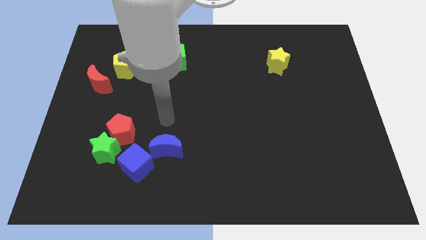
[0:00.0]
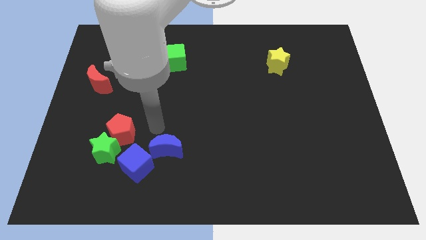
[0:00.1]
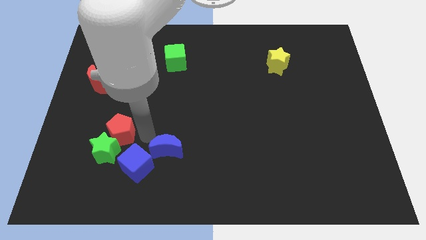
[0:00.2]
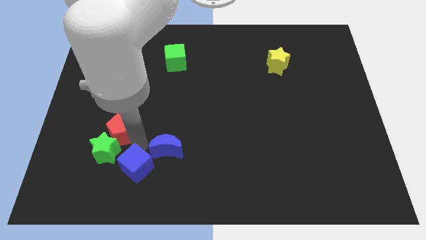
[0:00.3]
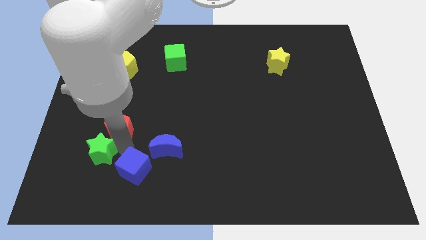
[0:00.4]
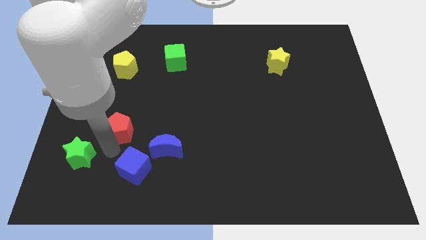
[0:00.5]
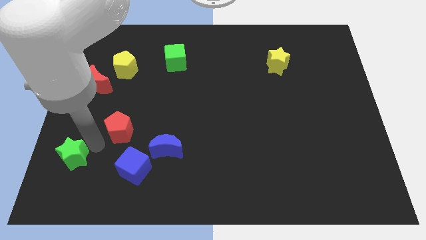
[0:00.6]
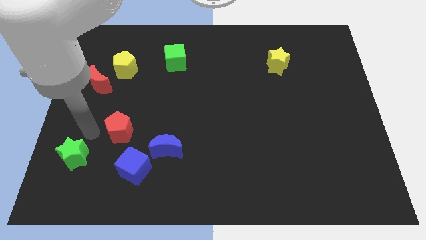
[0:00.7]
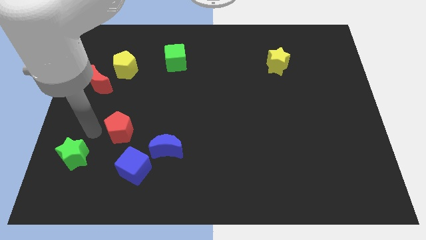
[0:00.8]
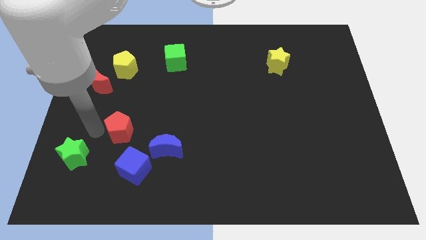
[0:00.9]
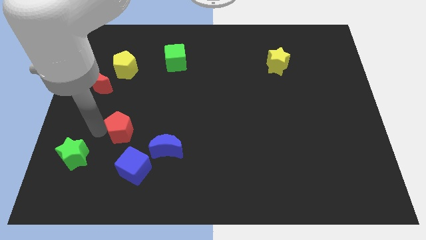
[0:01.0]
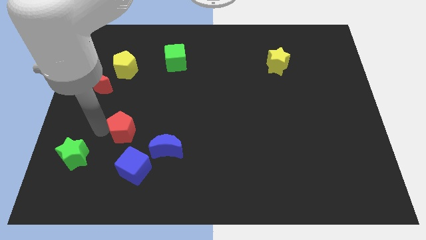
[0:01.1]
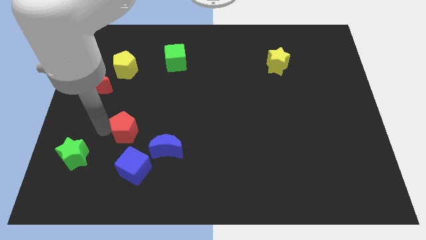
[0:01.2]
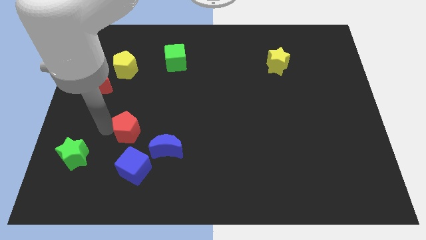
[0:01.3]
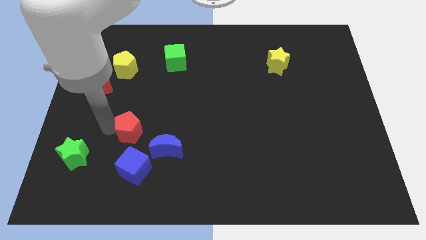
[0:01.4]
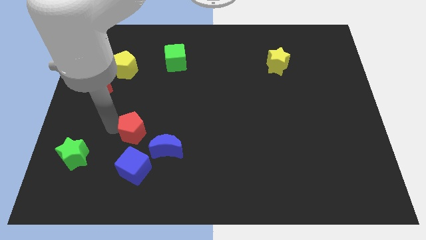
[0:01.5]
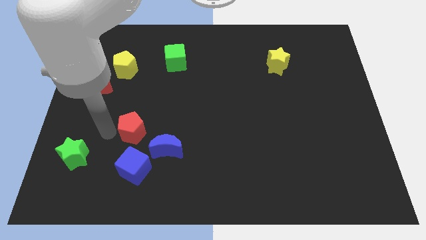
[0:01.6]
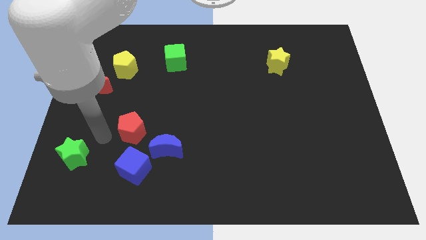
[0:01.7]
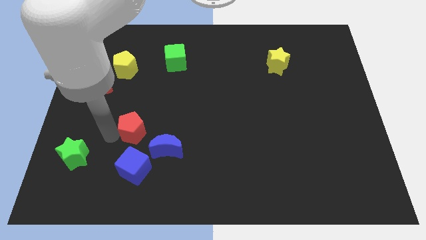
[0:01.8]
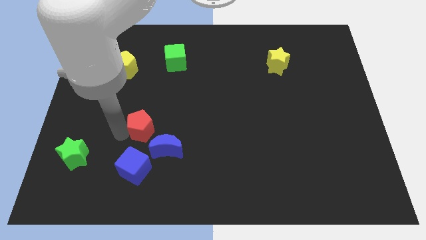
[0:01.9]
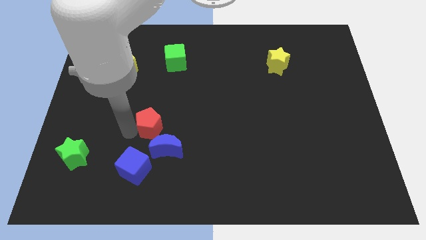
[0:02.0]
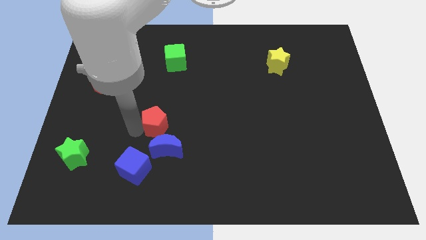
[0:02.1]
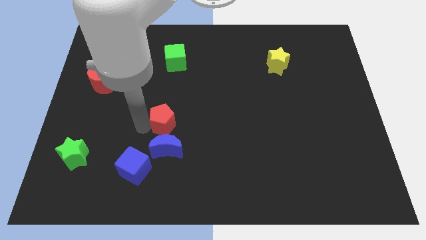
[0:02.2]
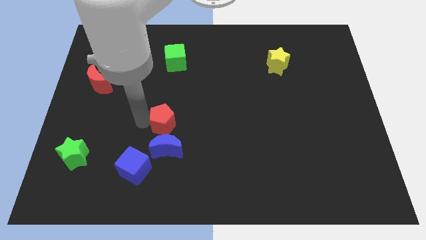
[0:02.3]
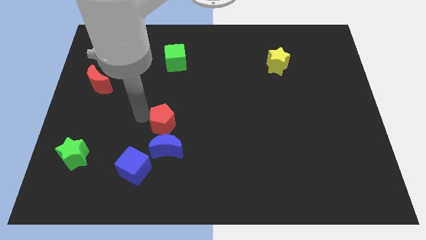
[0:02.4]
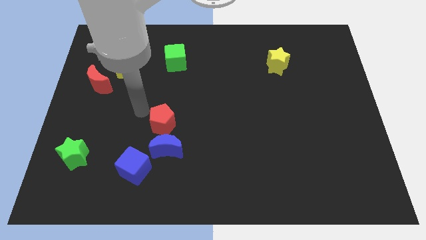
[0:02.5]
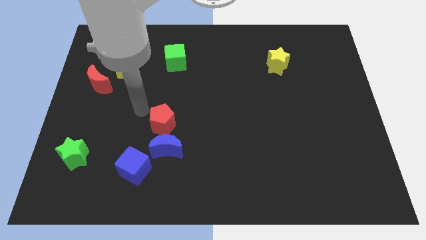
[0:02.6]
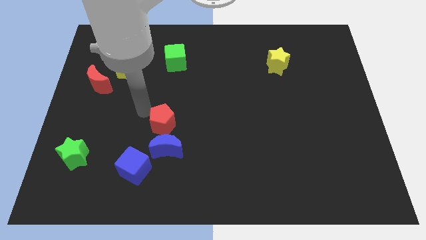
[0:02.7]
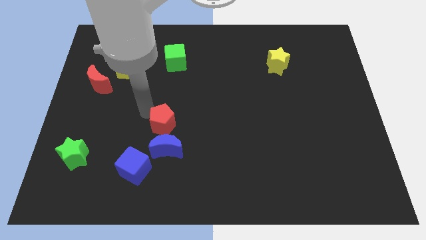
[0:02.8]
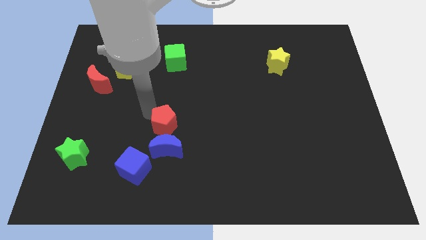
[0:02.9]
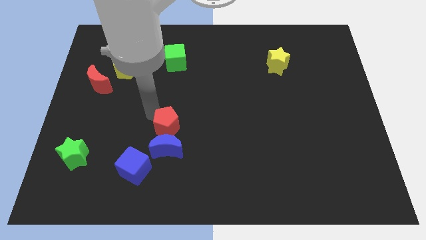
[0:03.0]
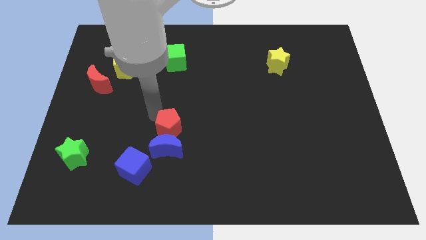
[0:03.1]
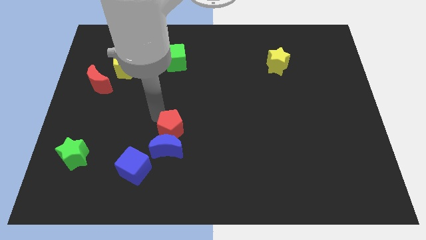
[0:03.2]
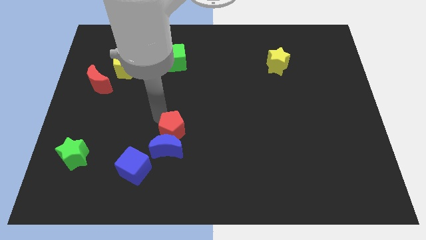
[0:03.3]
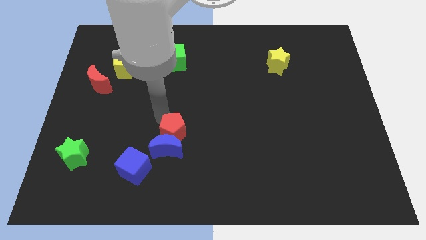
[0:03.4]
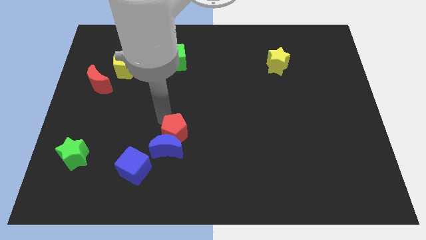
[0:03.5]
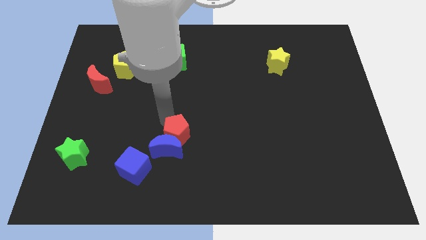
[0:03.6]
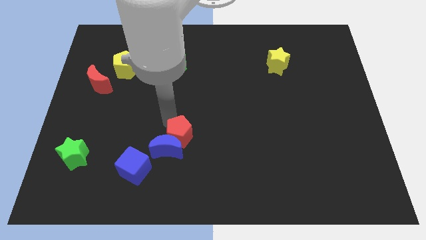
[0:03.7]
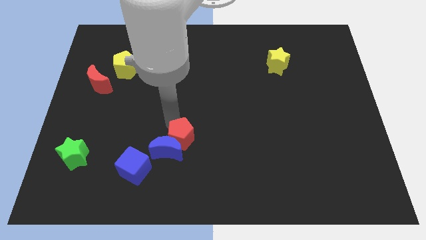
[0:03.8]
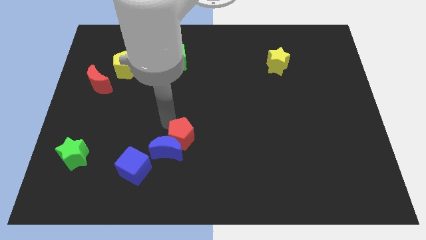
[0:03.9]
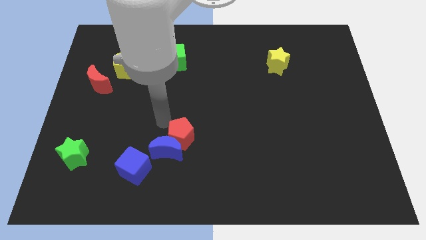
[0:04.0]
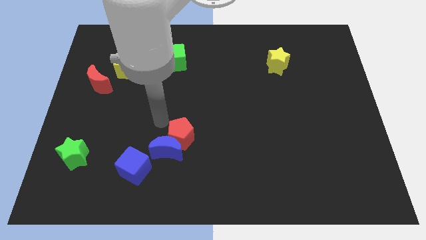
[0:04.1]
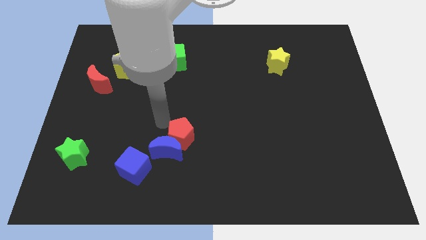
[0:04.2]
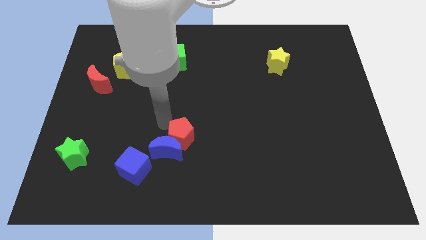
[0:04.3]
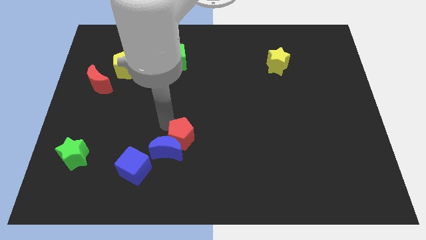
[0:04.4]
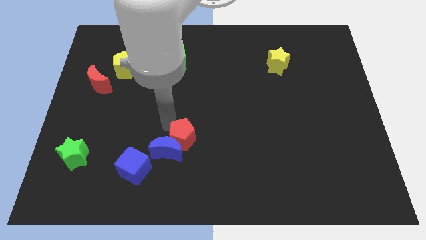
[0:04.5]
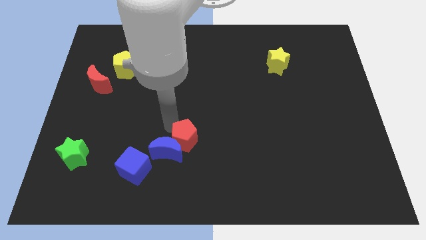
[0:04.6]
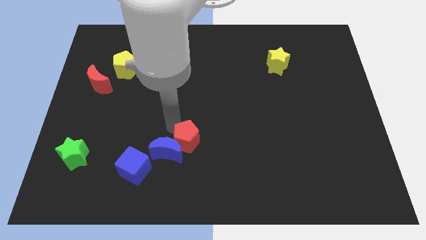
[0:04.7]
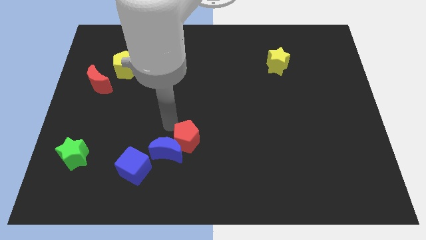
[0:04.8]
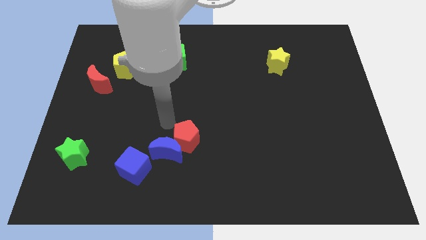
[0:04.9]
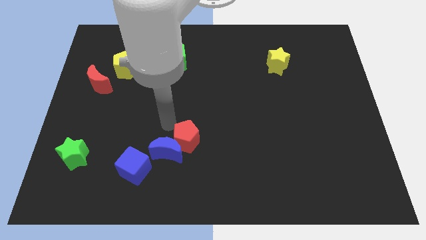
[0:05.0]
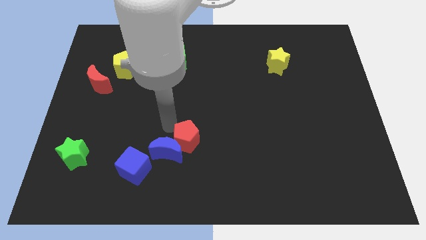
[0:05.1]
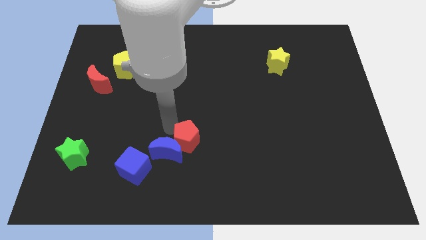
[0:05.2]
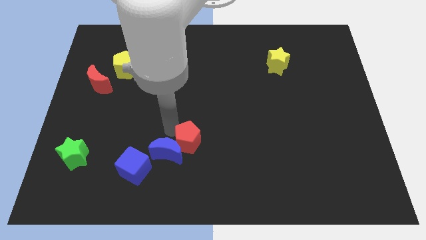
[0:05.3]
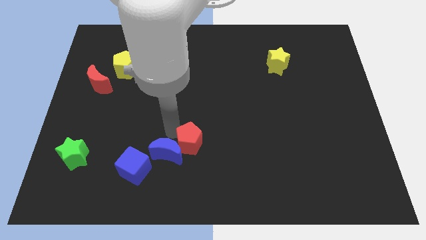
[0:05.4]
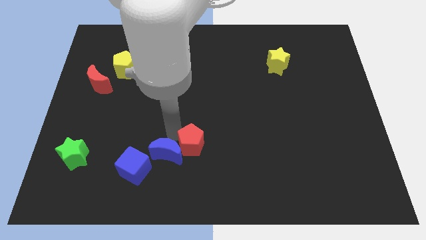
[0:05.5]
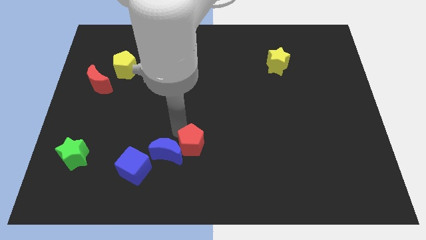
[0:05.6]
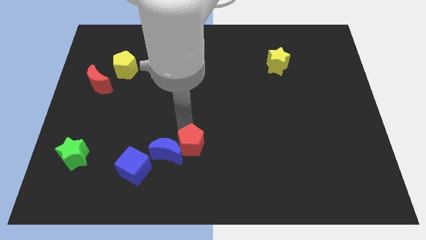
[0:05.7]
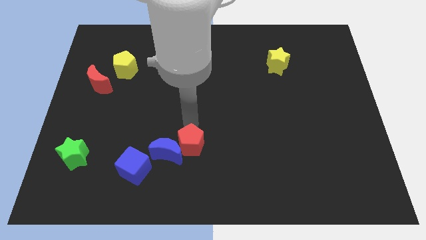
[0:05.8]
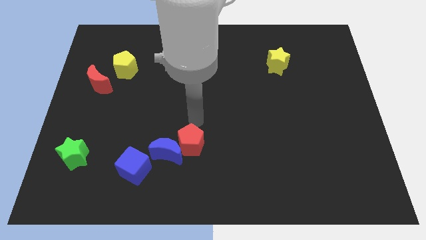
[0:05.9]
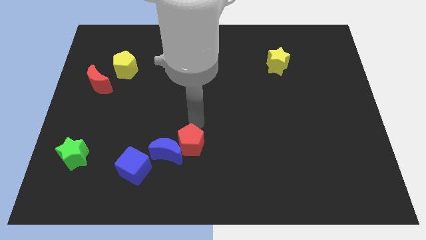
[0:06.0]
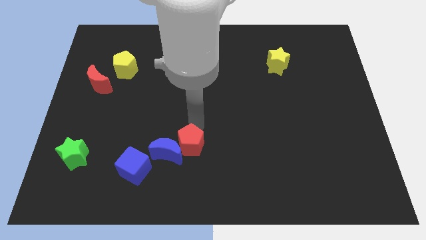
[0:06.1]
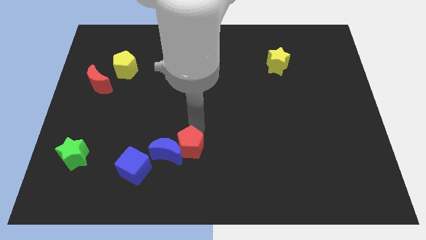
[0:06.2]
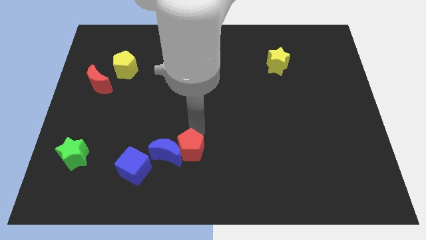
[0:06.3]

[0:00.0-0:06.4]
put the red pentagon to the right of the blue cube
